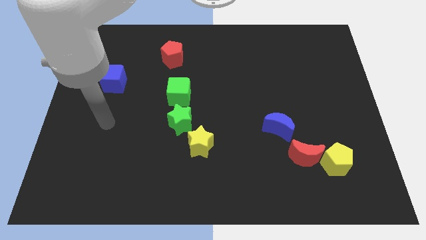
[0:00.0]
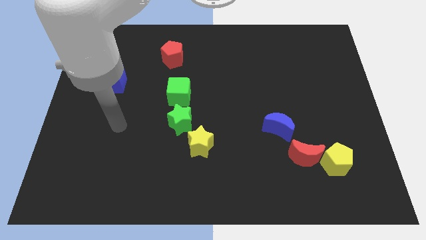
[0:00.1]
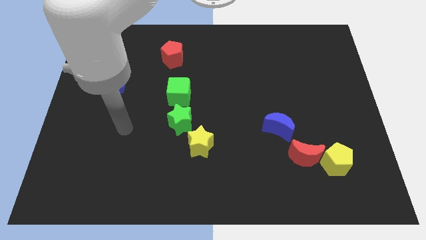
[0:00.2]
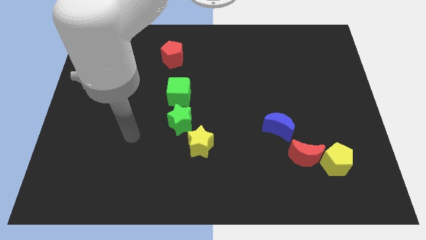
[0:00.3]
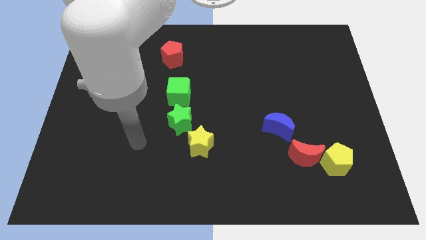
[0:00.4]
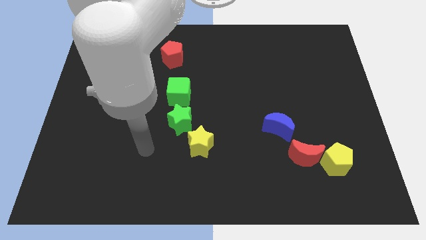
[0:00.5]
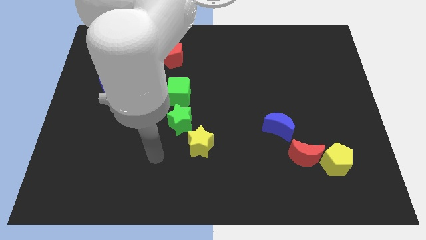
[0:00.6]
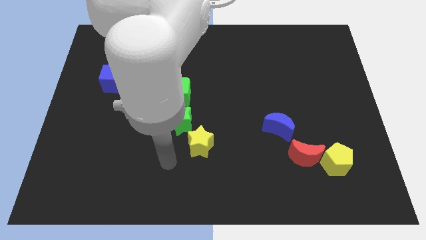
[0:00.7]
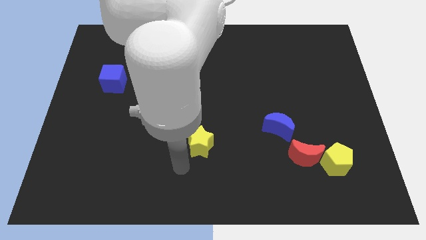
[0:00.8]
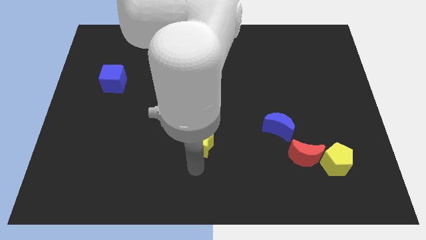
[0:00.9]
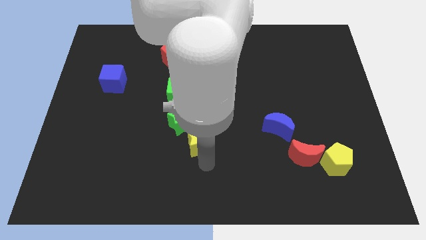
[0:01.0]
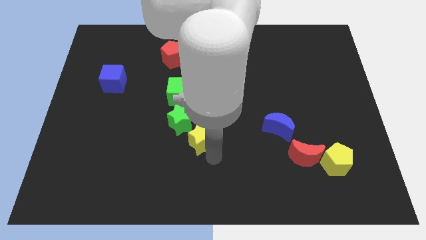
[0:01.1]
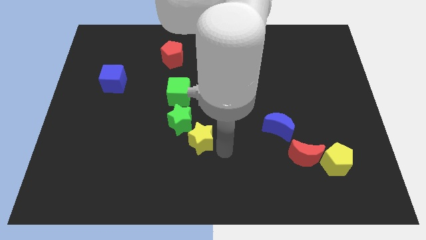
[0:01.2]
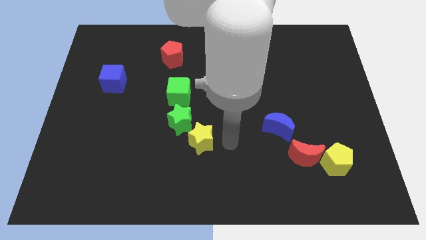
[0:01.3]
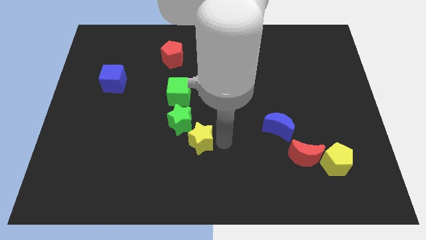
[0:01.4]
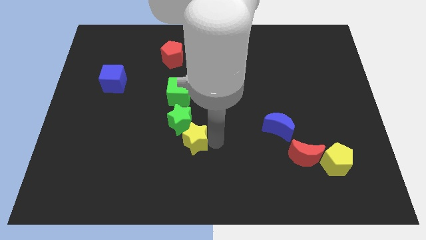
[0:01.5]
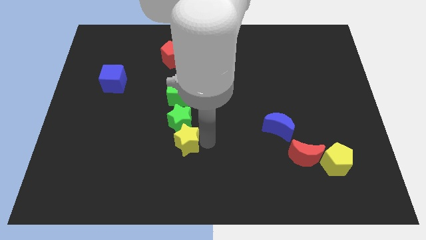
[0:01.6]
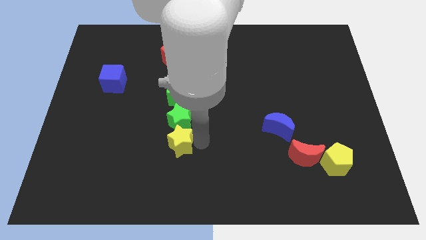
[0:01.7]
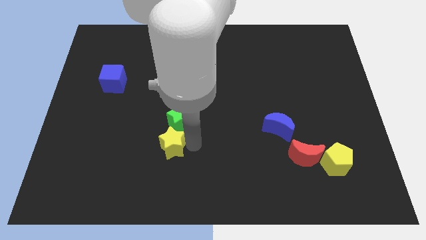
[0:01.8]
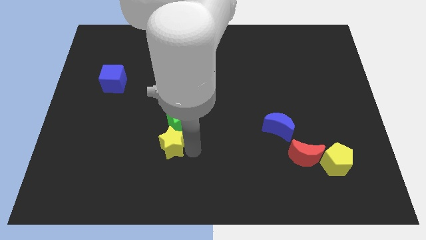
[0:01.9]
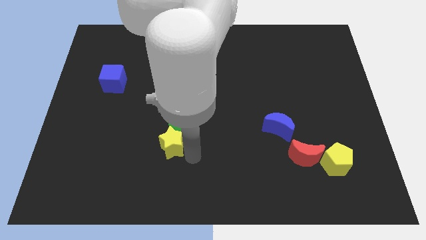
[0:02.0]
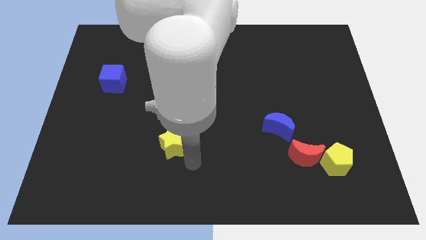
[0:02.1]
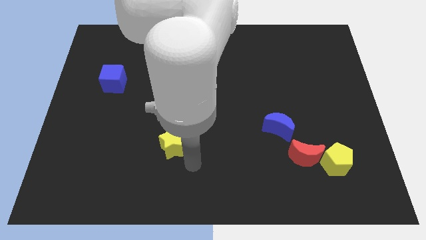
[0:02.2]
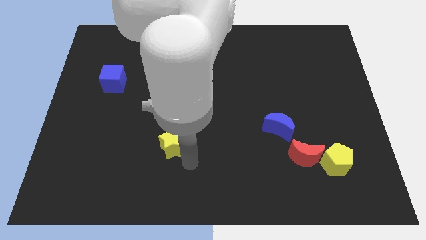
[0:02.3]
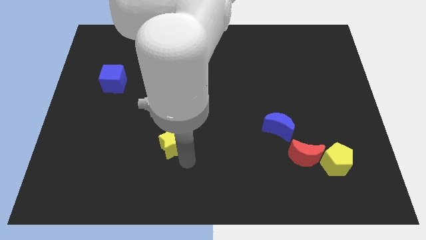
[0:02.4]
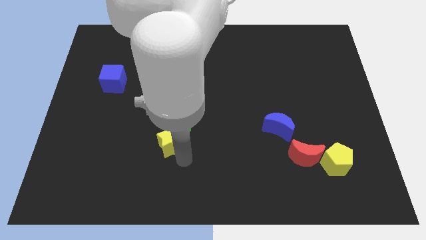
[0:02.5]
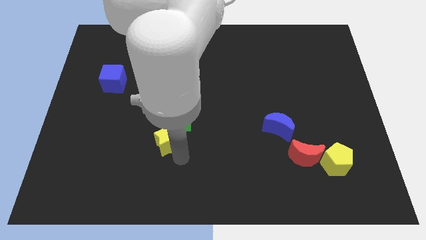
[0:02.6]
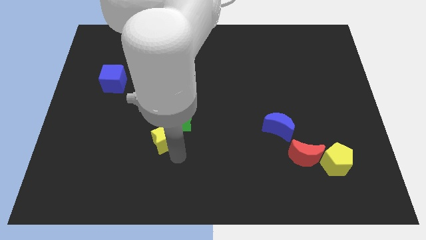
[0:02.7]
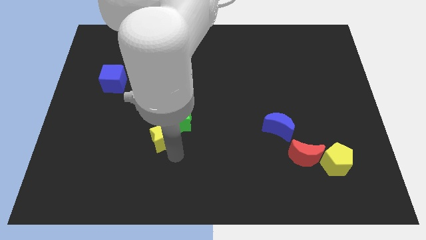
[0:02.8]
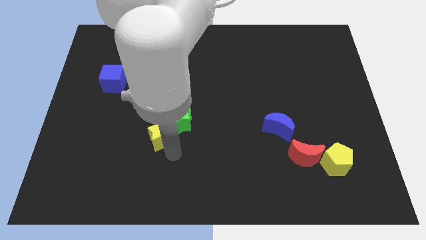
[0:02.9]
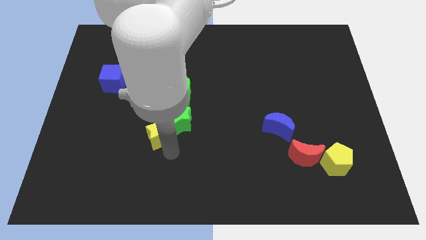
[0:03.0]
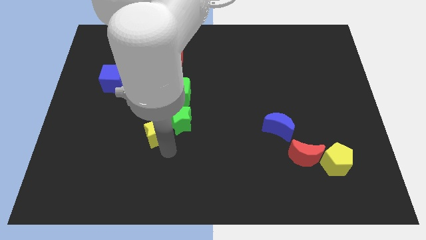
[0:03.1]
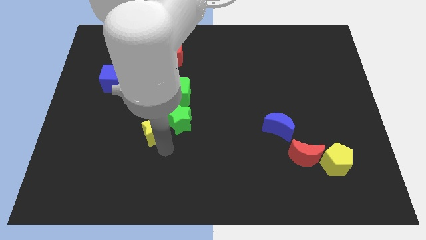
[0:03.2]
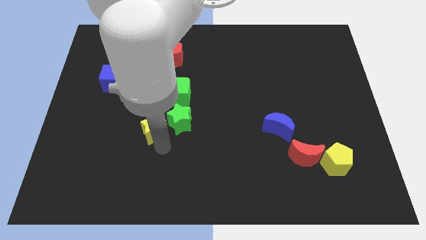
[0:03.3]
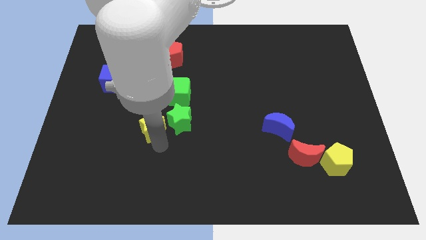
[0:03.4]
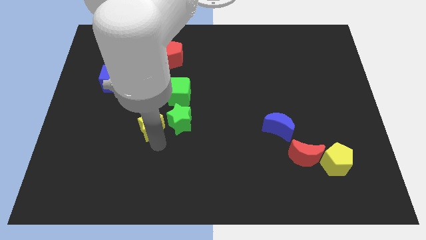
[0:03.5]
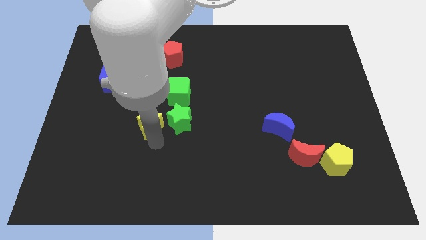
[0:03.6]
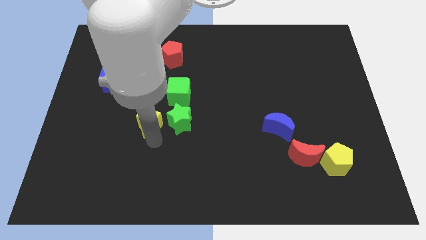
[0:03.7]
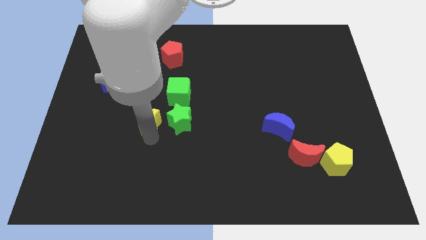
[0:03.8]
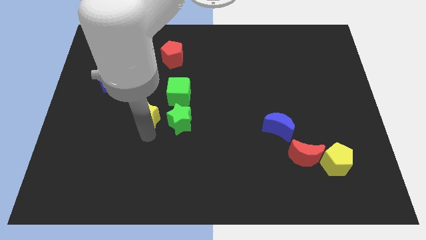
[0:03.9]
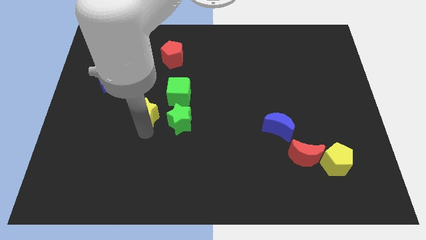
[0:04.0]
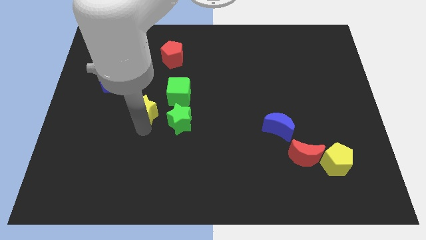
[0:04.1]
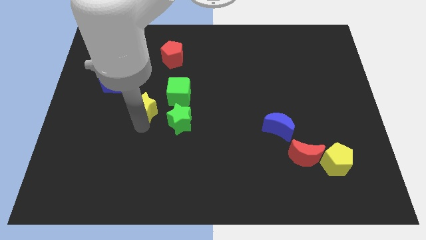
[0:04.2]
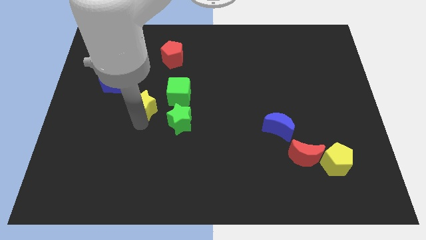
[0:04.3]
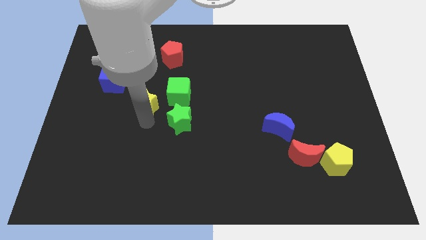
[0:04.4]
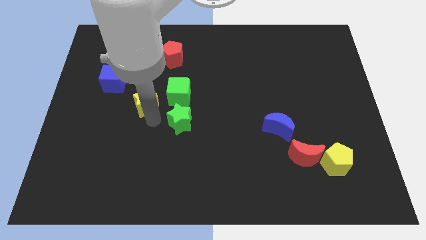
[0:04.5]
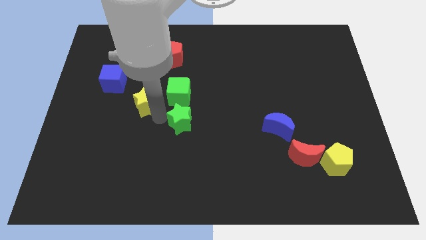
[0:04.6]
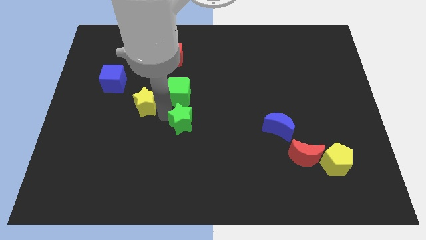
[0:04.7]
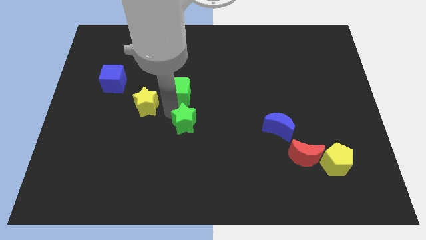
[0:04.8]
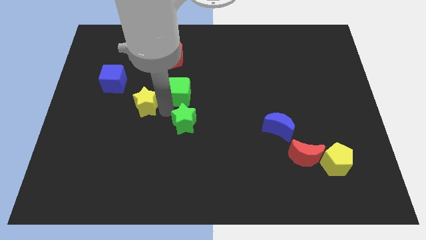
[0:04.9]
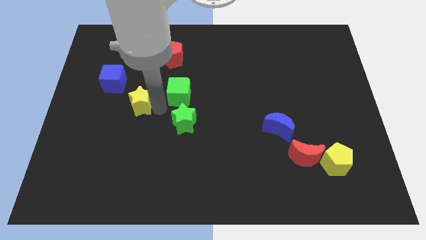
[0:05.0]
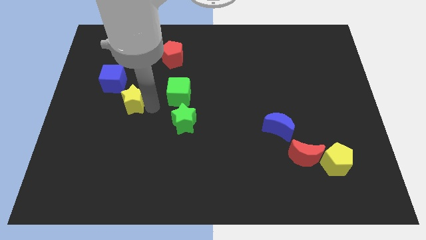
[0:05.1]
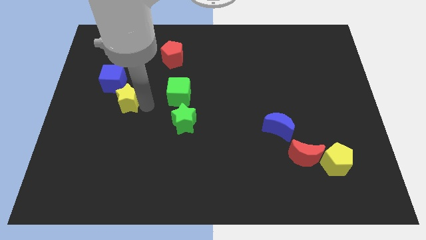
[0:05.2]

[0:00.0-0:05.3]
slide the yellow star up and then left

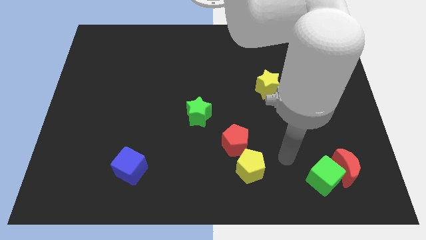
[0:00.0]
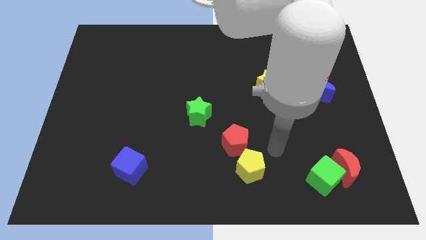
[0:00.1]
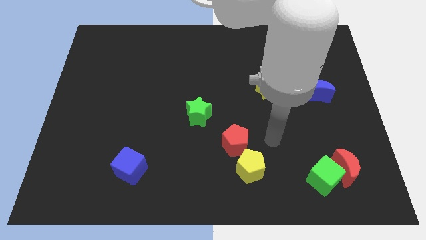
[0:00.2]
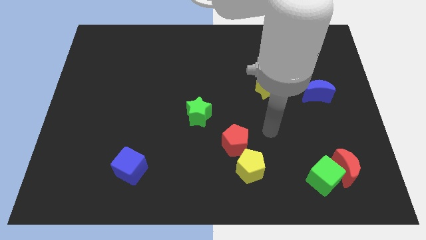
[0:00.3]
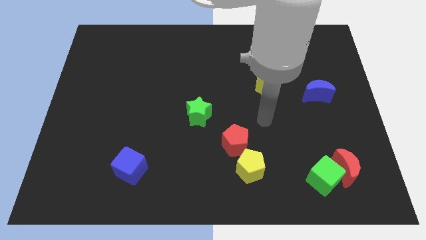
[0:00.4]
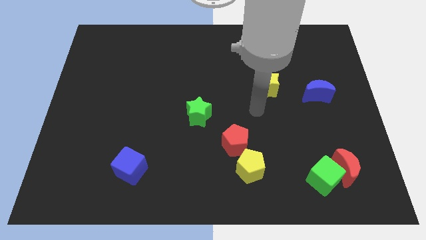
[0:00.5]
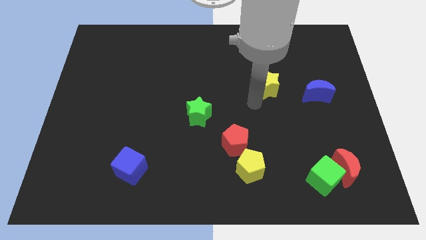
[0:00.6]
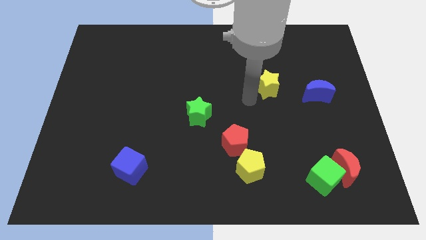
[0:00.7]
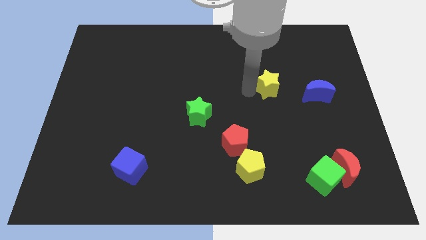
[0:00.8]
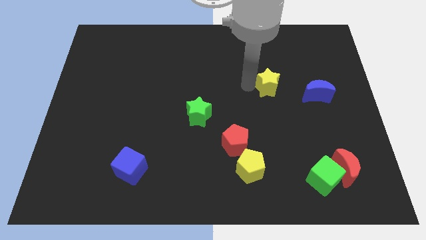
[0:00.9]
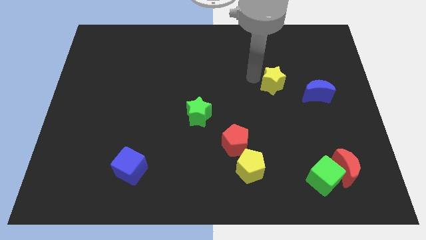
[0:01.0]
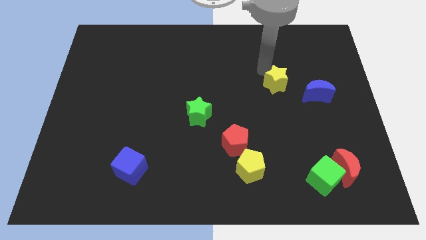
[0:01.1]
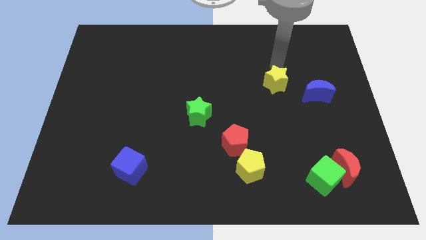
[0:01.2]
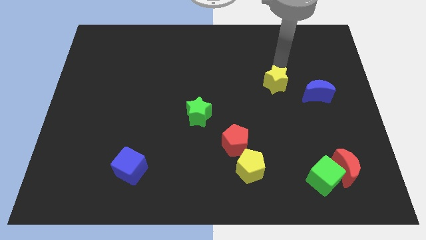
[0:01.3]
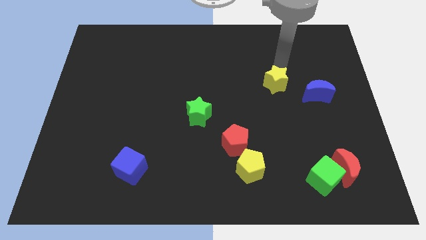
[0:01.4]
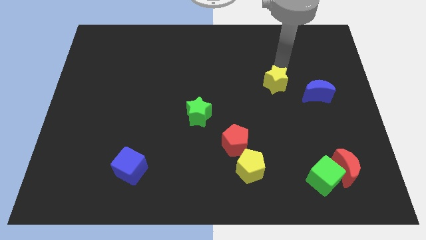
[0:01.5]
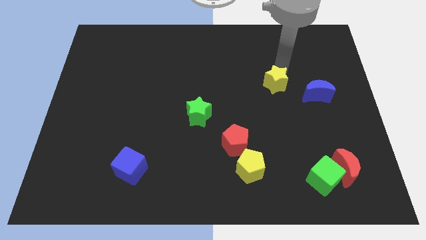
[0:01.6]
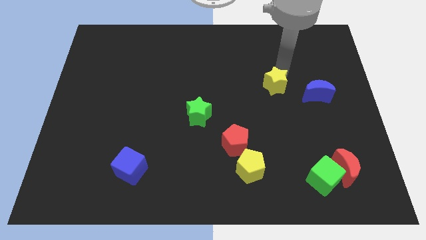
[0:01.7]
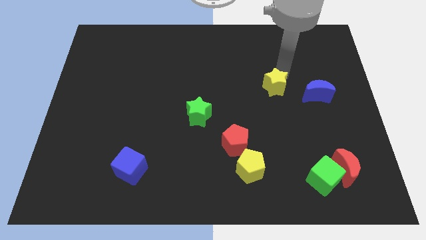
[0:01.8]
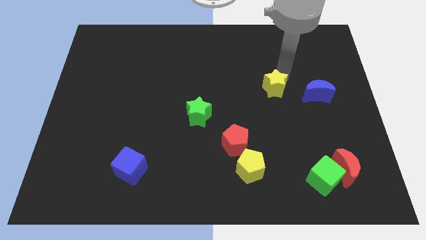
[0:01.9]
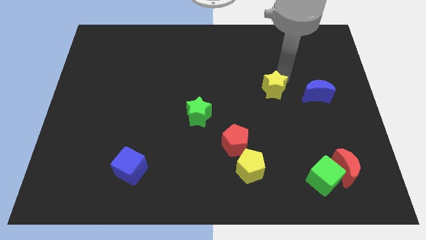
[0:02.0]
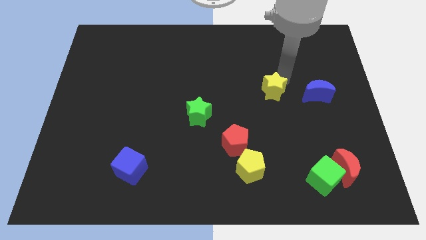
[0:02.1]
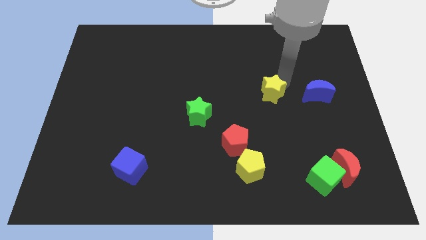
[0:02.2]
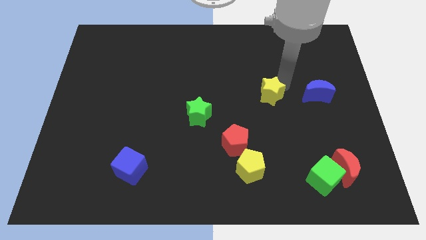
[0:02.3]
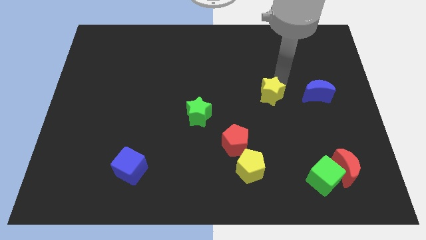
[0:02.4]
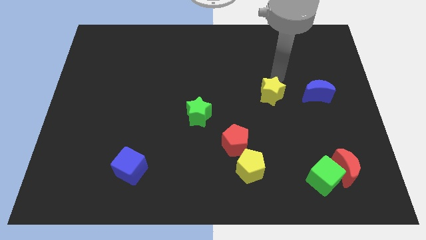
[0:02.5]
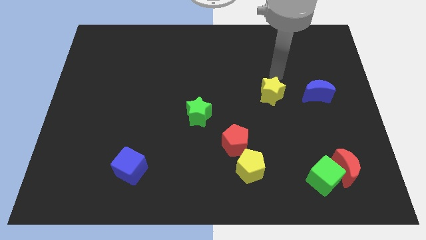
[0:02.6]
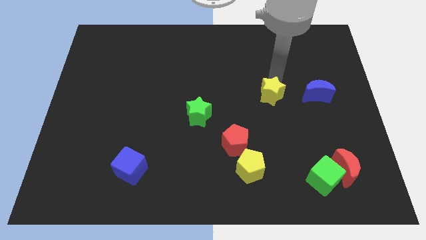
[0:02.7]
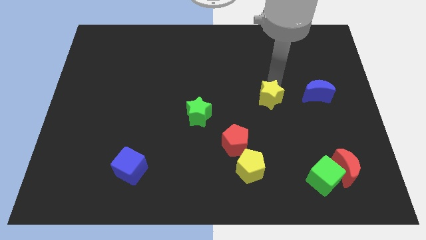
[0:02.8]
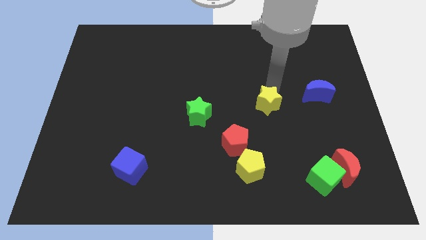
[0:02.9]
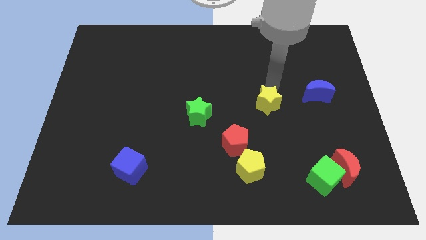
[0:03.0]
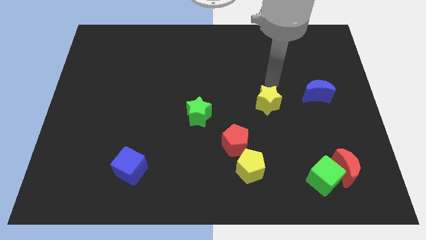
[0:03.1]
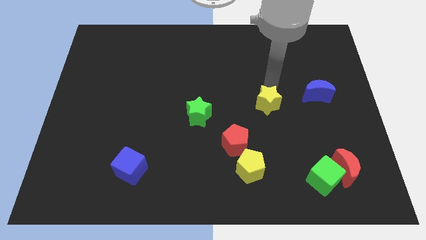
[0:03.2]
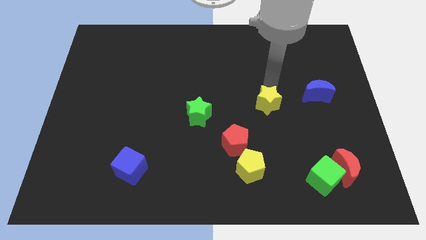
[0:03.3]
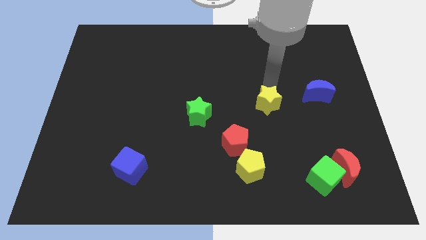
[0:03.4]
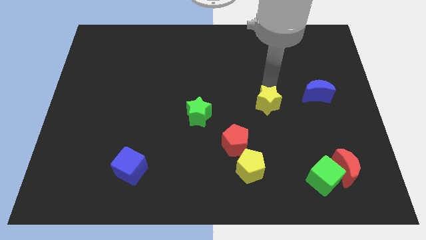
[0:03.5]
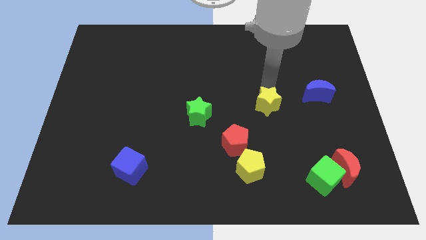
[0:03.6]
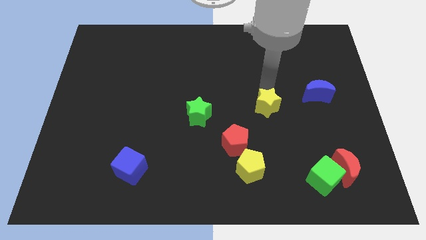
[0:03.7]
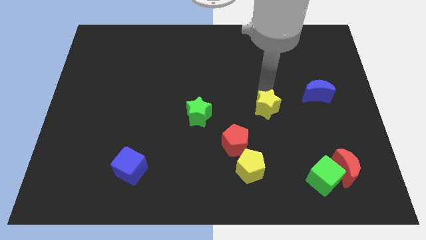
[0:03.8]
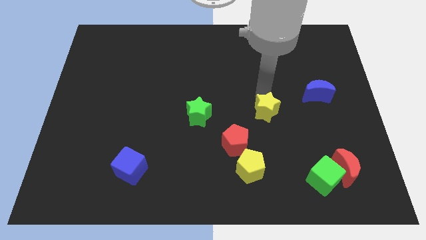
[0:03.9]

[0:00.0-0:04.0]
move the yellow star downwards slightly
